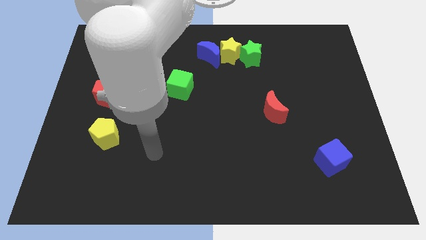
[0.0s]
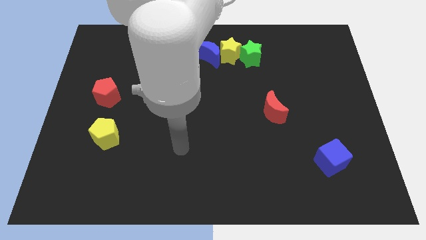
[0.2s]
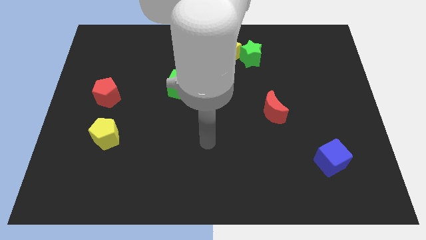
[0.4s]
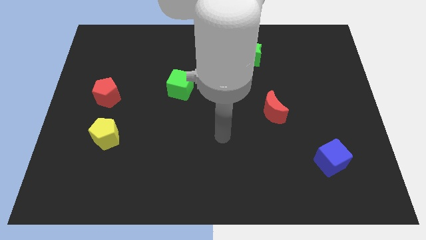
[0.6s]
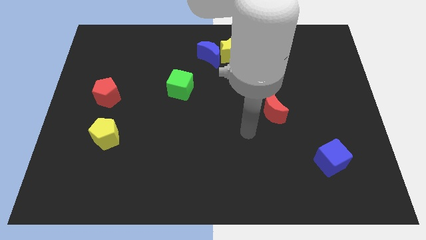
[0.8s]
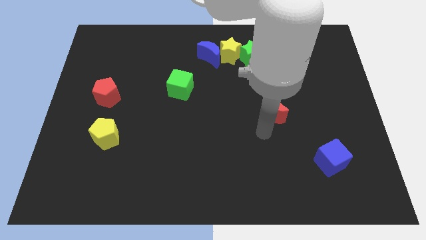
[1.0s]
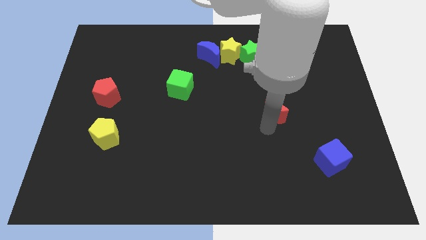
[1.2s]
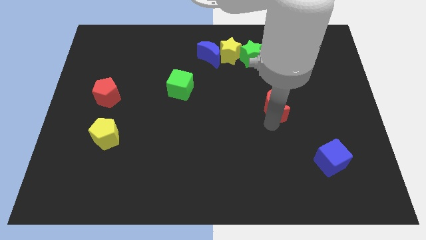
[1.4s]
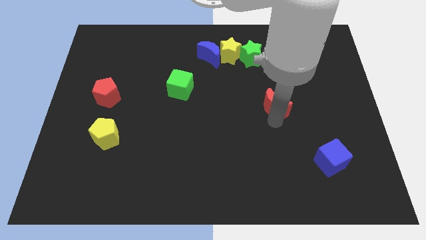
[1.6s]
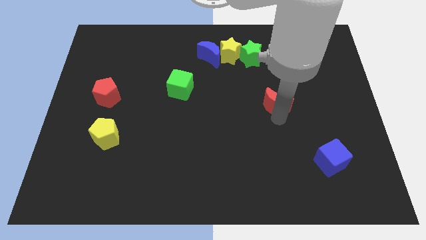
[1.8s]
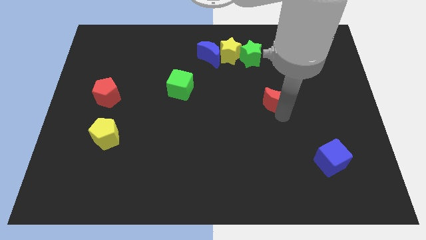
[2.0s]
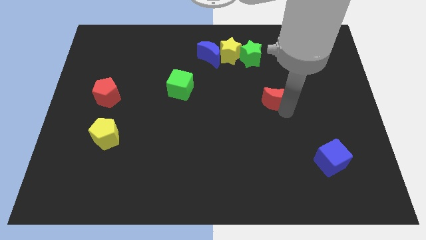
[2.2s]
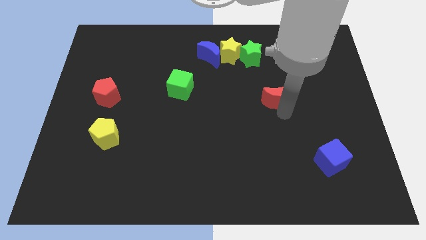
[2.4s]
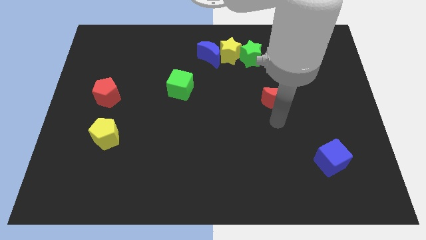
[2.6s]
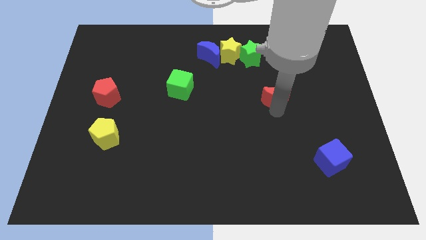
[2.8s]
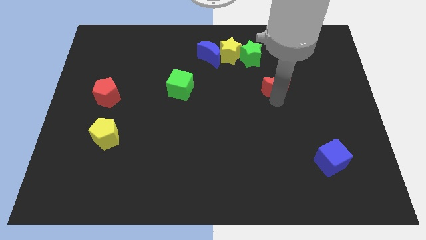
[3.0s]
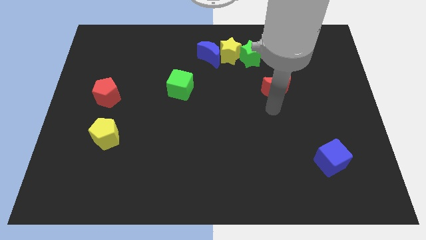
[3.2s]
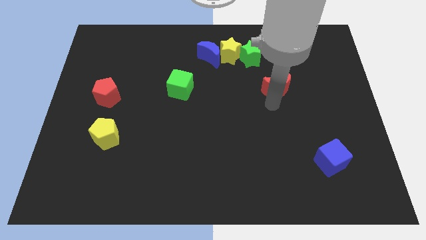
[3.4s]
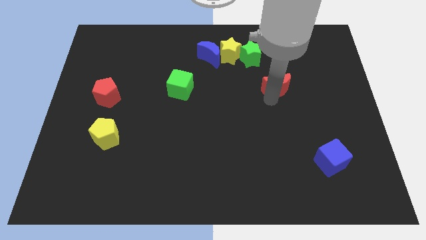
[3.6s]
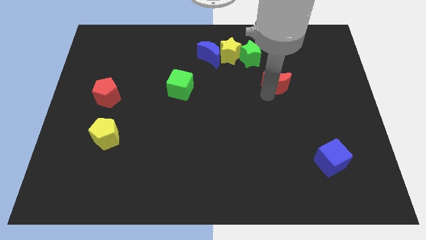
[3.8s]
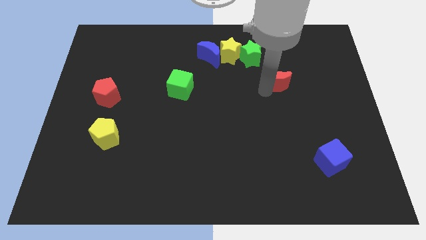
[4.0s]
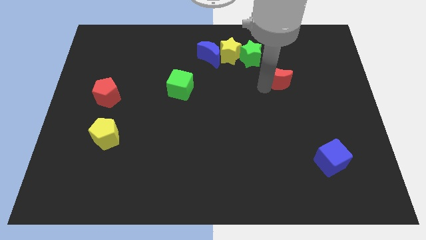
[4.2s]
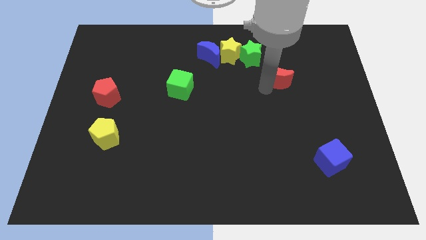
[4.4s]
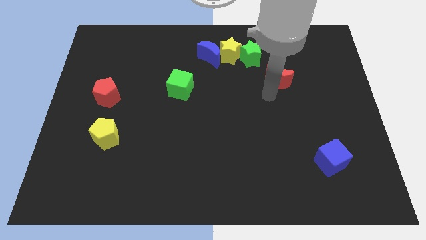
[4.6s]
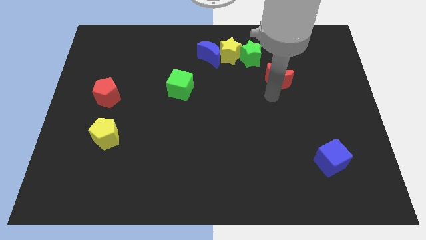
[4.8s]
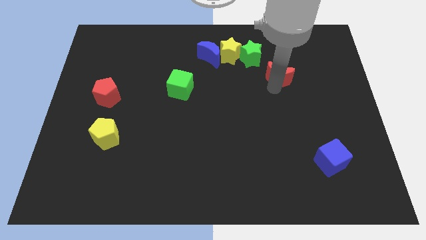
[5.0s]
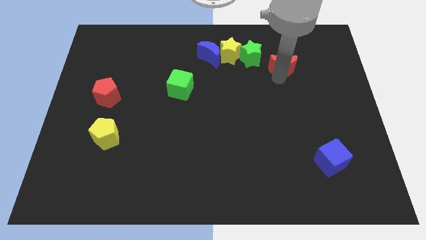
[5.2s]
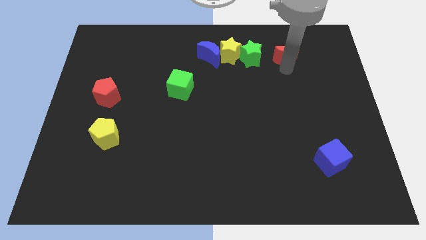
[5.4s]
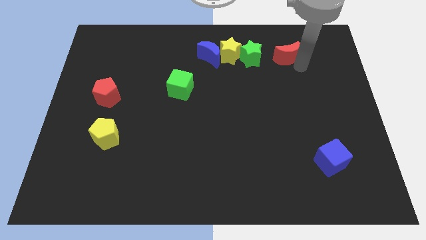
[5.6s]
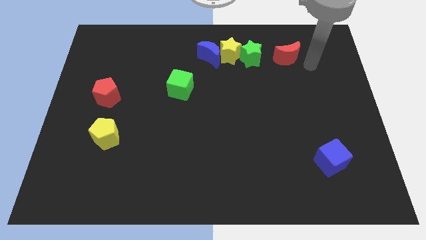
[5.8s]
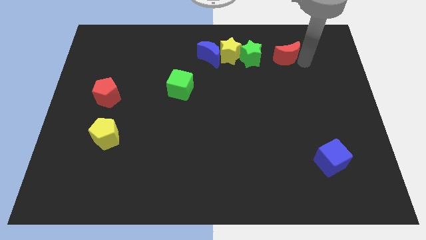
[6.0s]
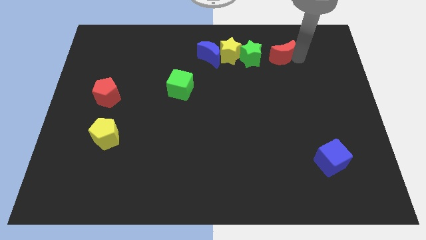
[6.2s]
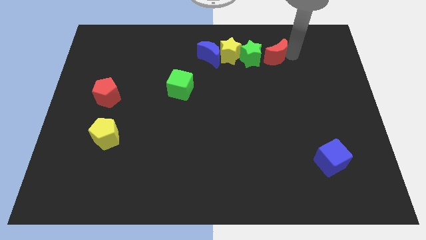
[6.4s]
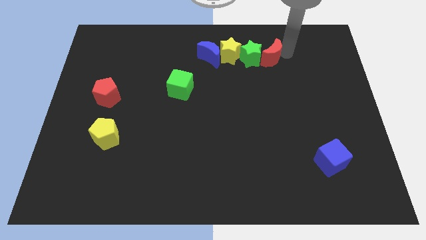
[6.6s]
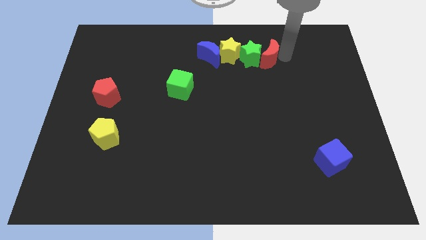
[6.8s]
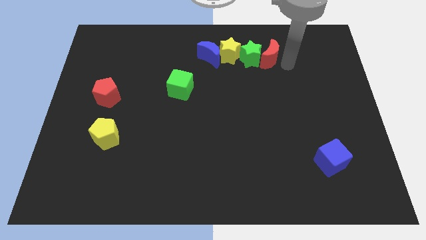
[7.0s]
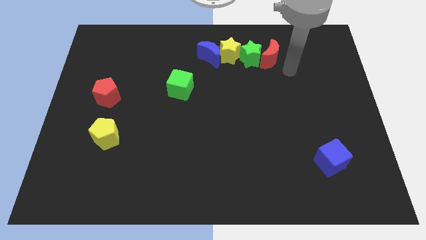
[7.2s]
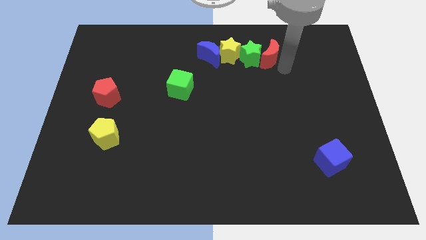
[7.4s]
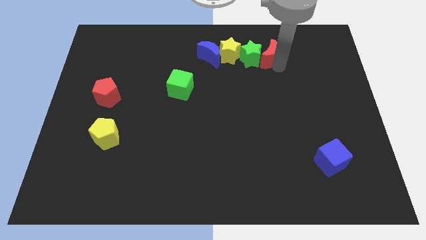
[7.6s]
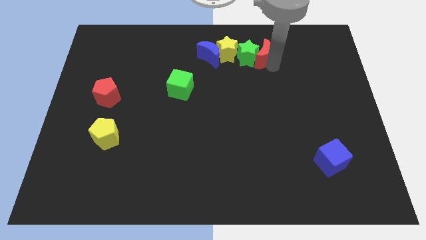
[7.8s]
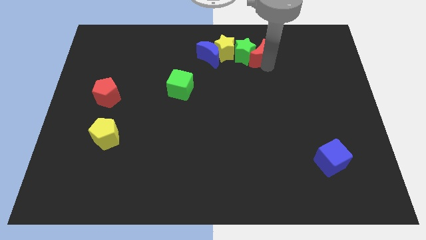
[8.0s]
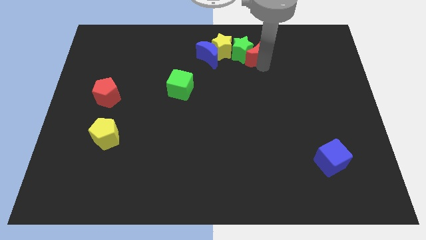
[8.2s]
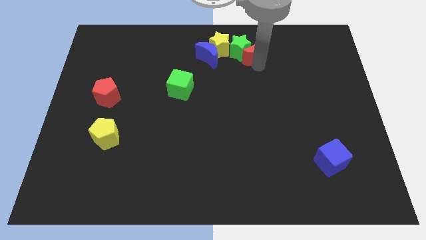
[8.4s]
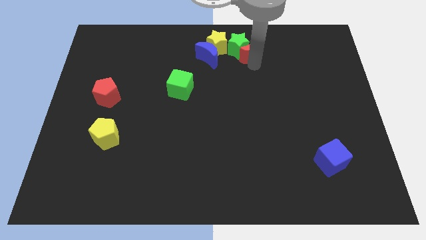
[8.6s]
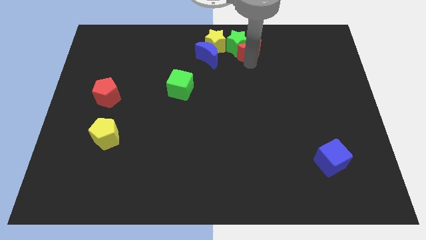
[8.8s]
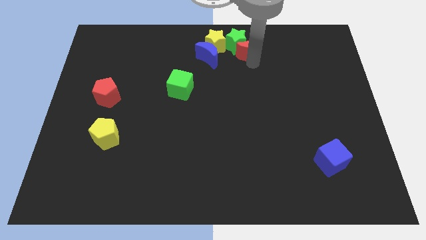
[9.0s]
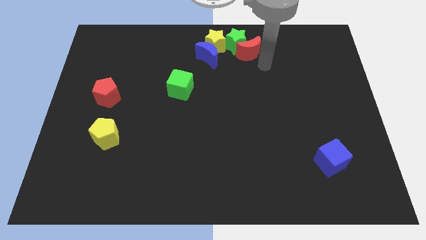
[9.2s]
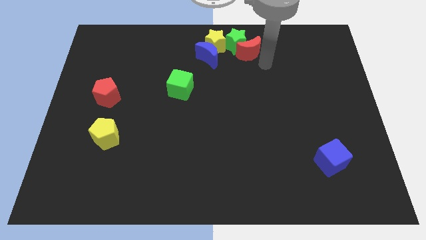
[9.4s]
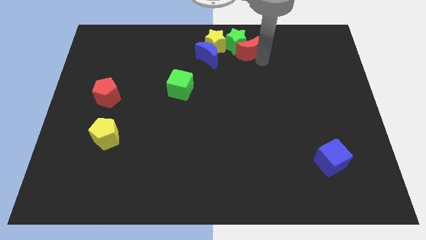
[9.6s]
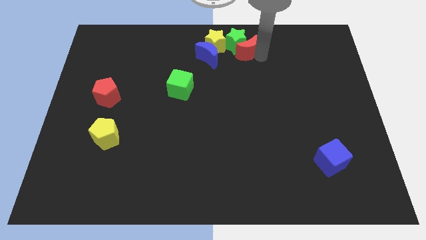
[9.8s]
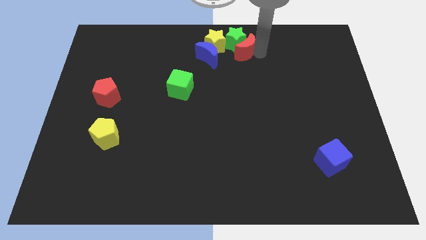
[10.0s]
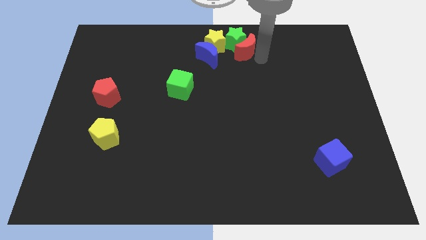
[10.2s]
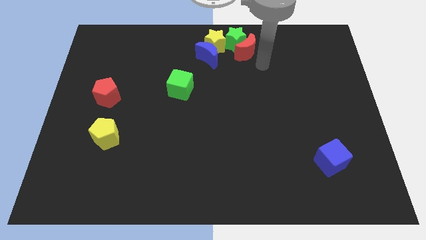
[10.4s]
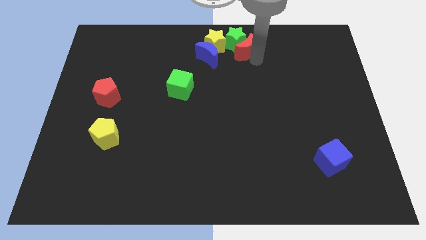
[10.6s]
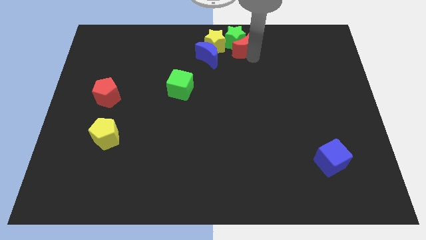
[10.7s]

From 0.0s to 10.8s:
push the red moon to the top side
